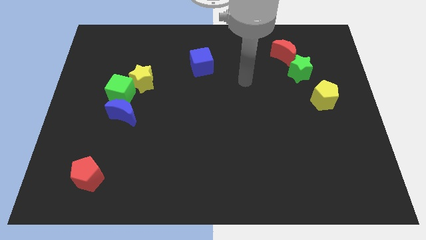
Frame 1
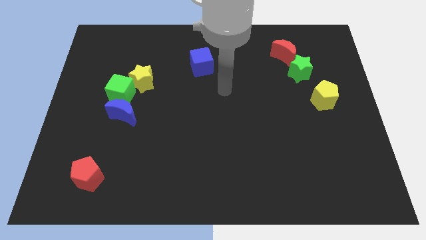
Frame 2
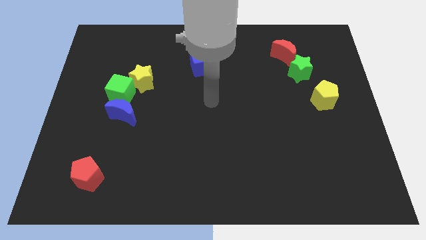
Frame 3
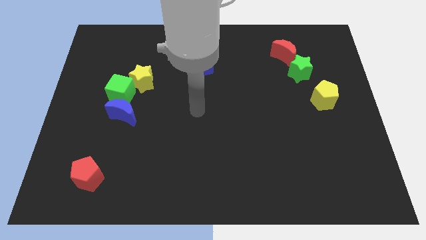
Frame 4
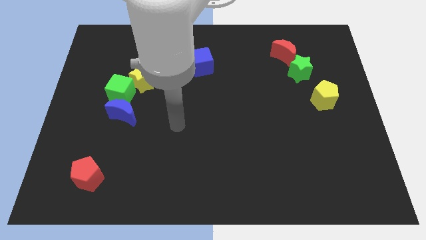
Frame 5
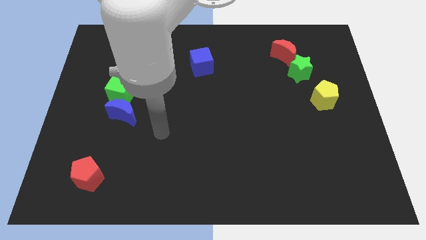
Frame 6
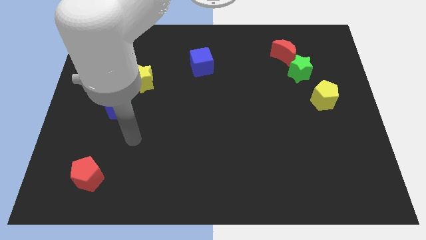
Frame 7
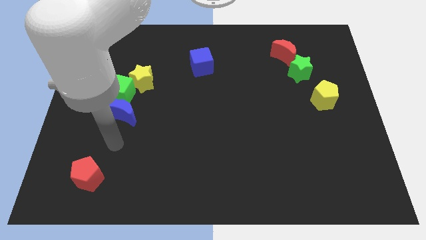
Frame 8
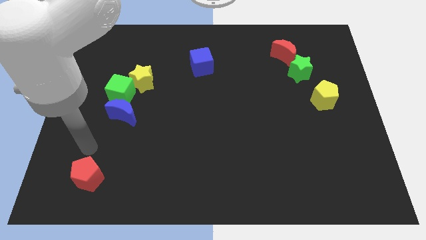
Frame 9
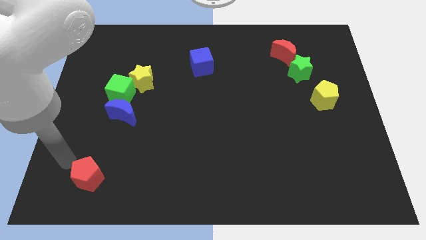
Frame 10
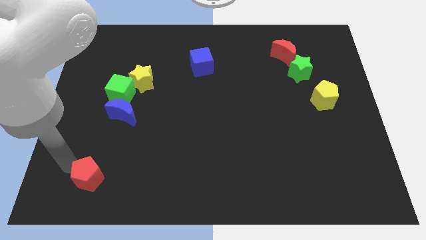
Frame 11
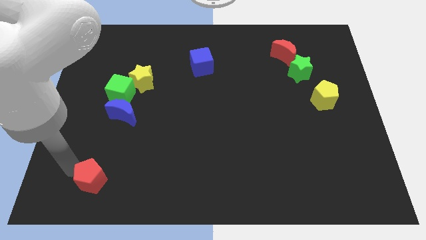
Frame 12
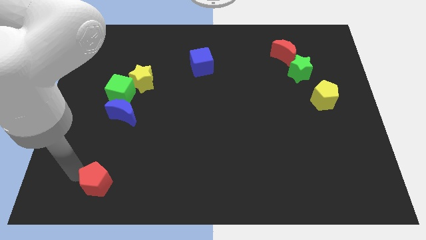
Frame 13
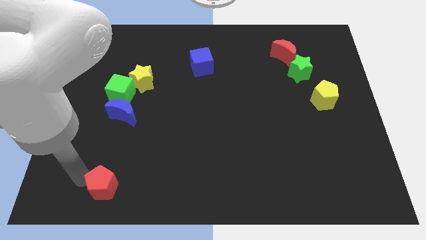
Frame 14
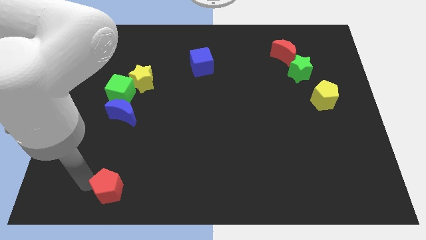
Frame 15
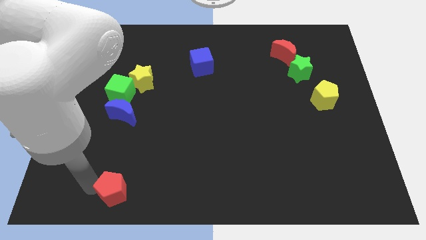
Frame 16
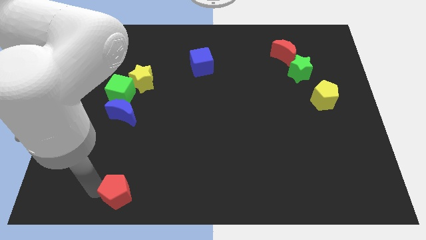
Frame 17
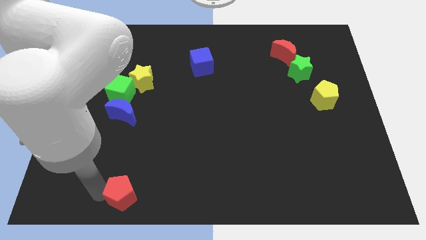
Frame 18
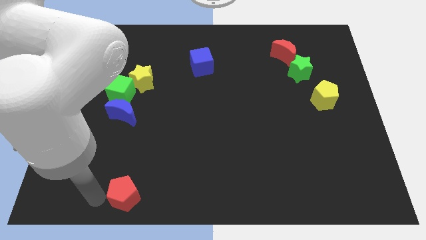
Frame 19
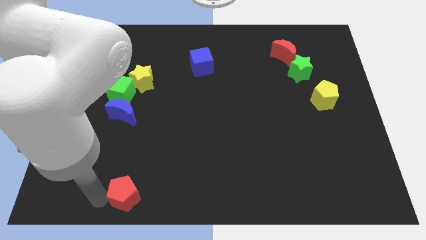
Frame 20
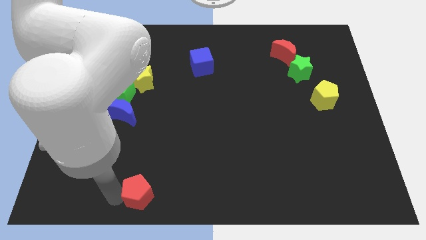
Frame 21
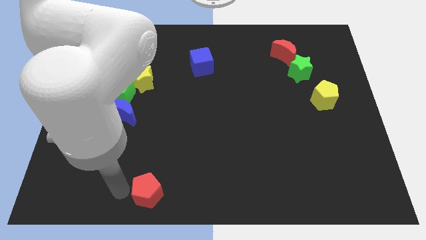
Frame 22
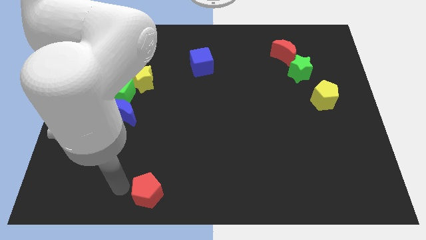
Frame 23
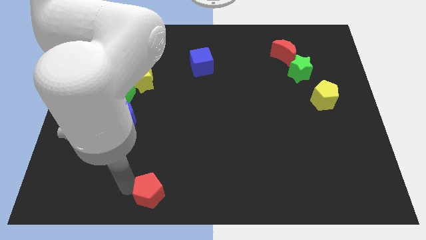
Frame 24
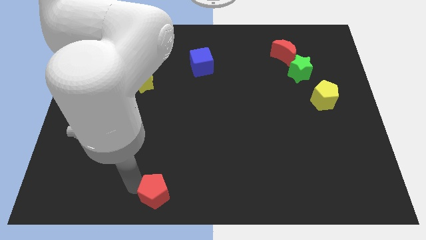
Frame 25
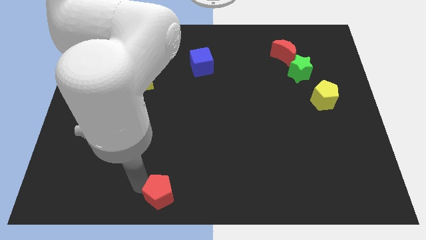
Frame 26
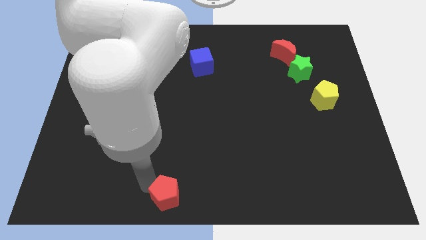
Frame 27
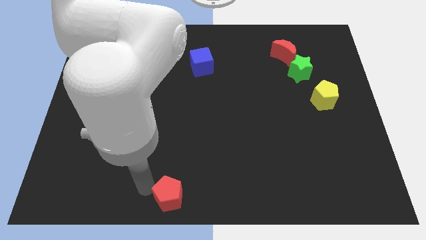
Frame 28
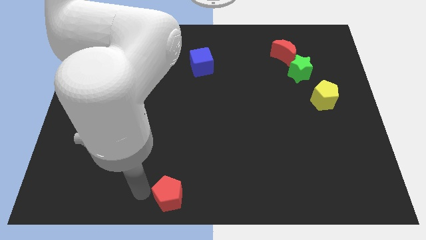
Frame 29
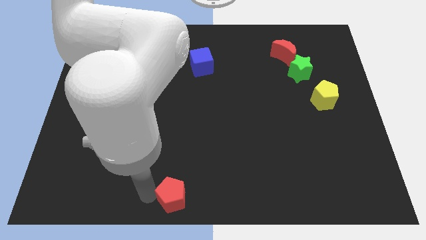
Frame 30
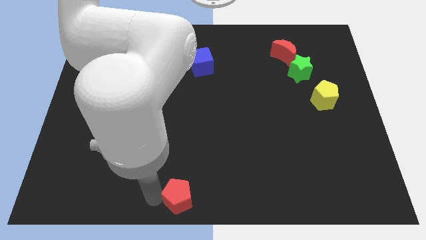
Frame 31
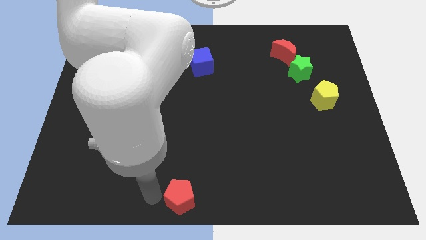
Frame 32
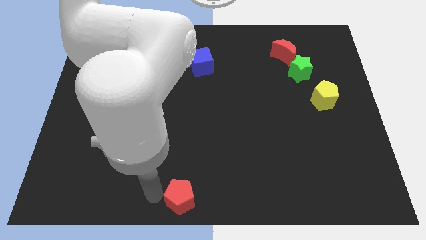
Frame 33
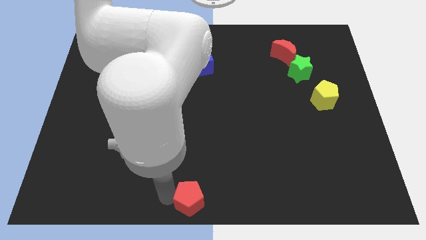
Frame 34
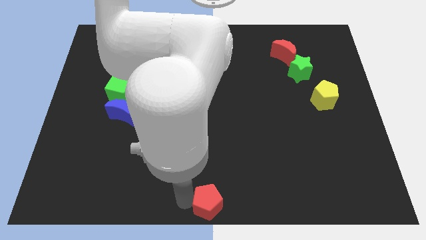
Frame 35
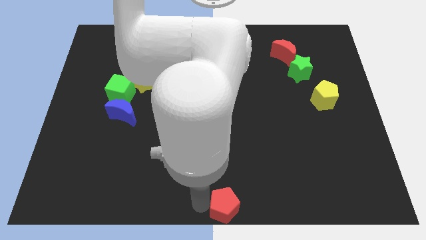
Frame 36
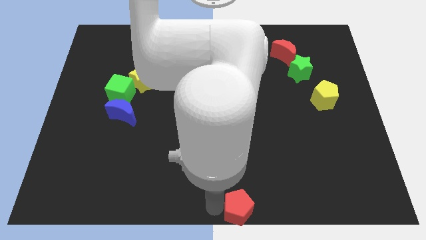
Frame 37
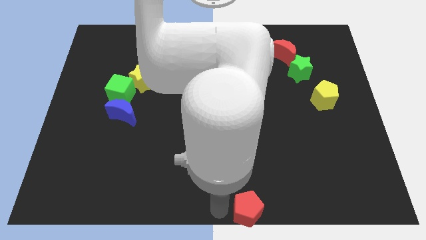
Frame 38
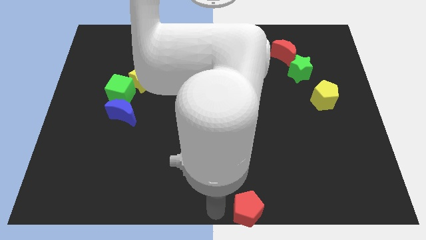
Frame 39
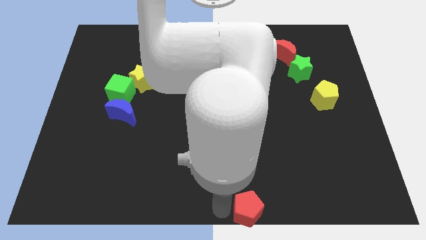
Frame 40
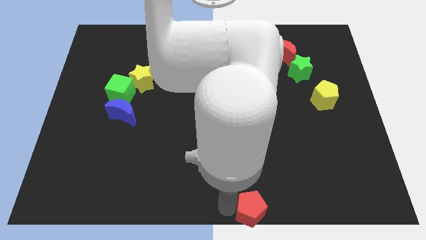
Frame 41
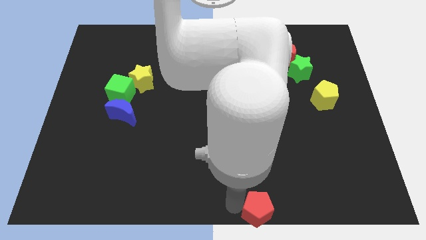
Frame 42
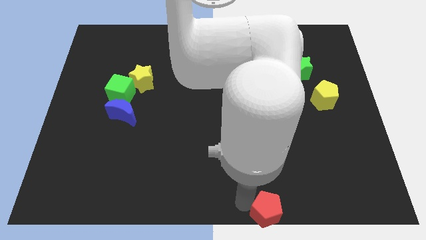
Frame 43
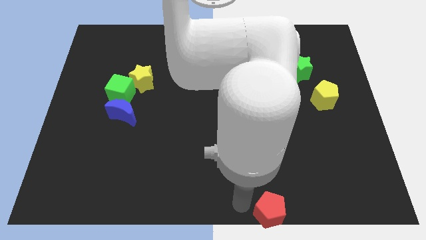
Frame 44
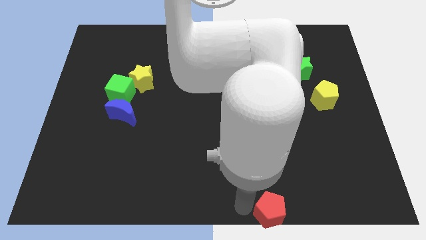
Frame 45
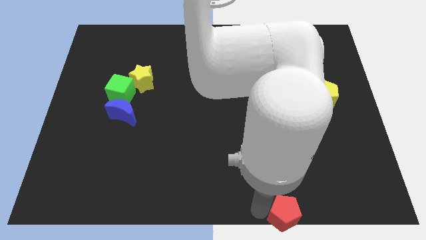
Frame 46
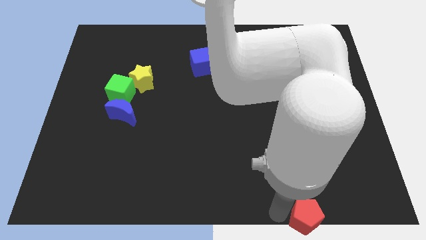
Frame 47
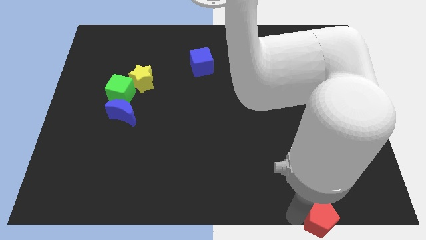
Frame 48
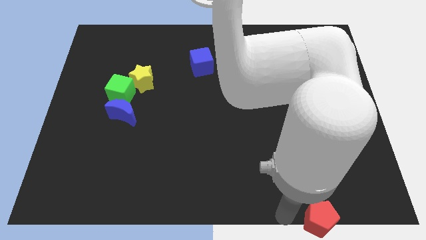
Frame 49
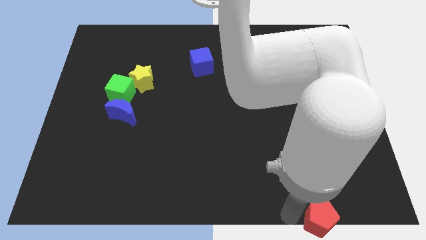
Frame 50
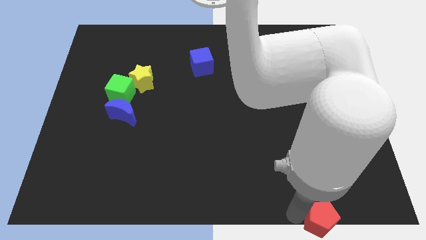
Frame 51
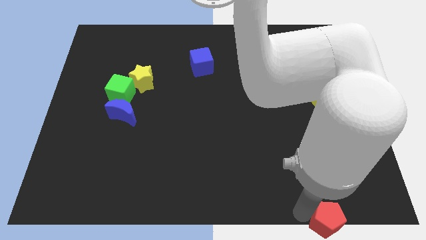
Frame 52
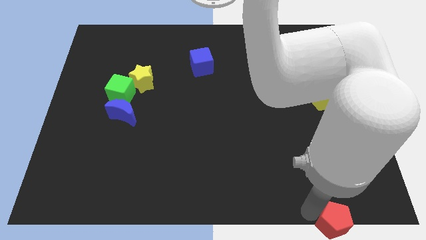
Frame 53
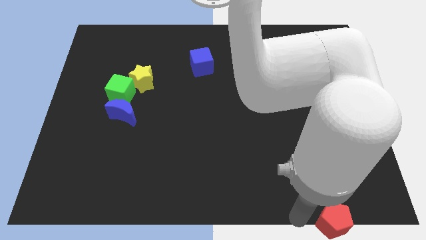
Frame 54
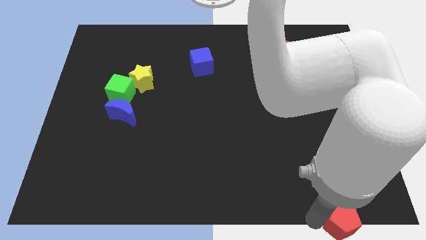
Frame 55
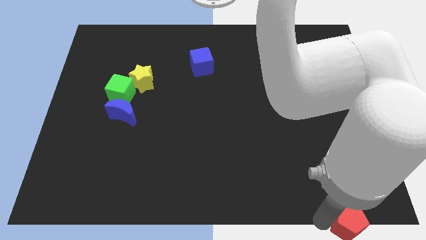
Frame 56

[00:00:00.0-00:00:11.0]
push the red pentagon to the bottom right corner
